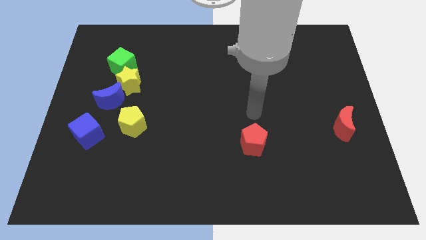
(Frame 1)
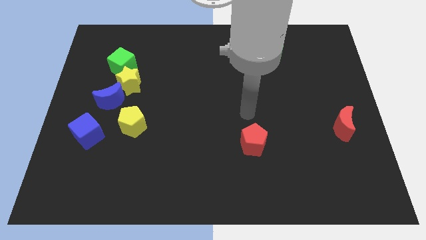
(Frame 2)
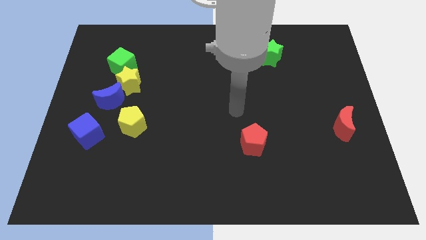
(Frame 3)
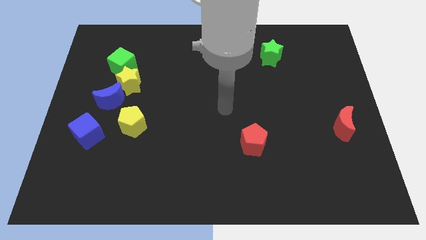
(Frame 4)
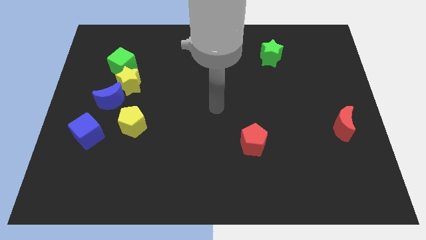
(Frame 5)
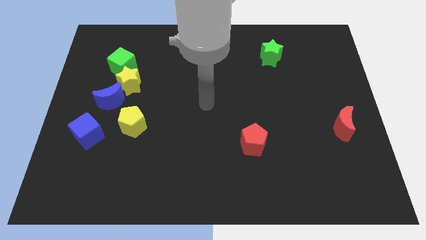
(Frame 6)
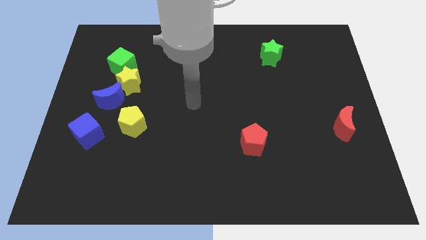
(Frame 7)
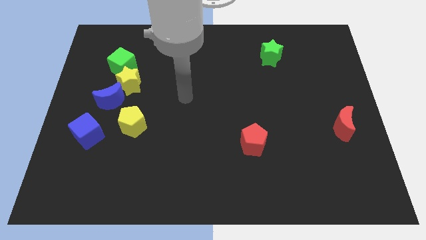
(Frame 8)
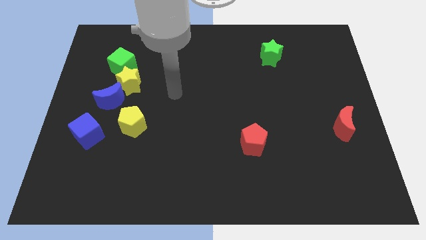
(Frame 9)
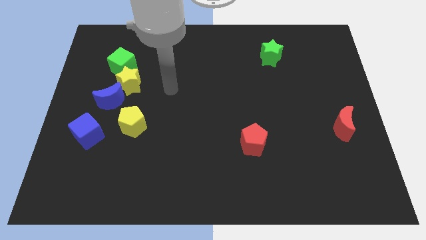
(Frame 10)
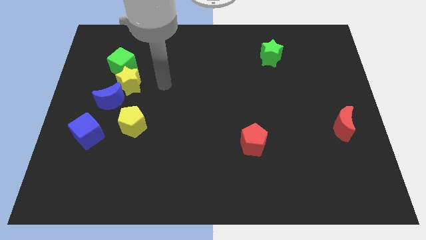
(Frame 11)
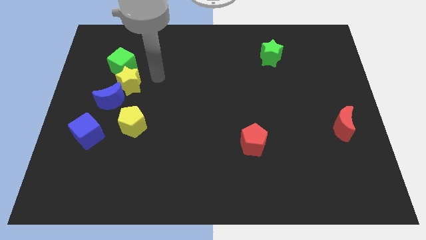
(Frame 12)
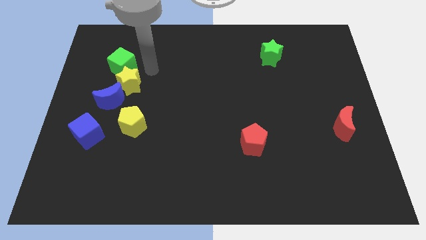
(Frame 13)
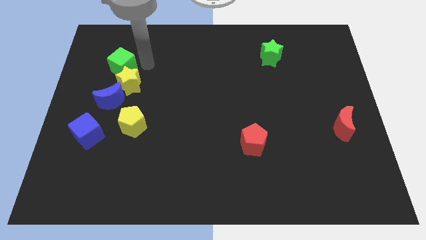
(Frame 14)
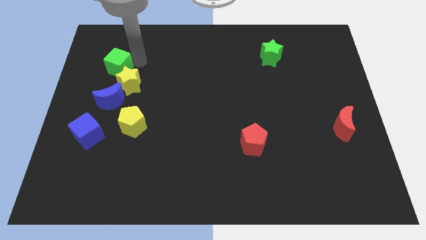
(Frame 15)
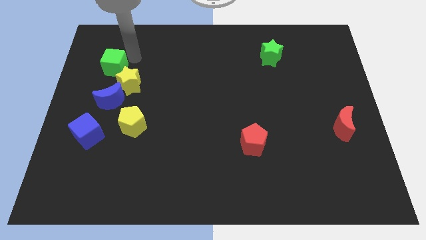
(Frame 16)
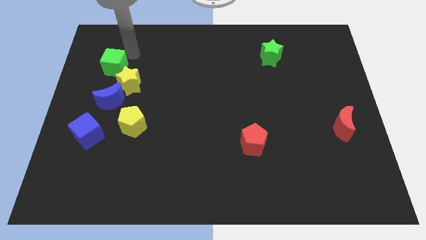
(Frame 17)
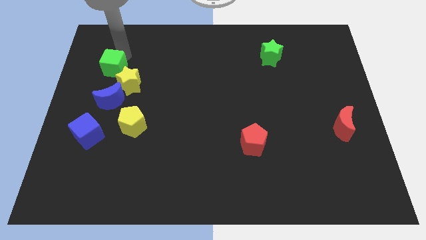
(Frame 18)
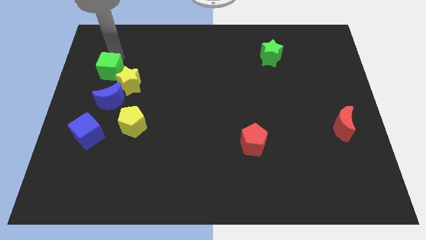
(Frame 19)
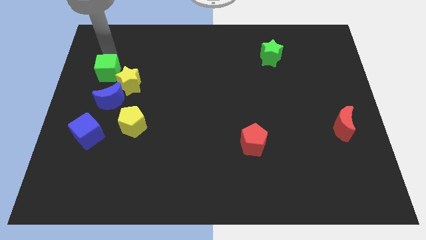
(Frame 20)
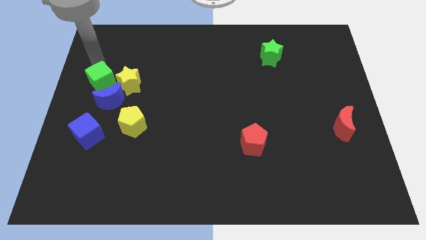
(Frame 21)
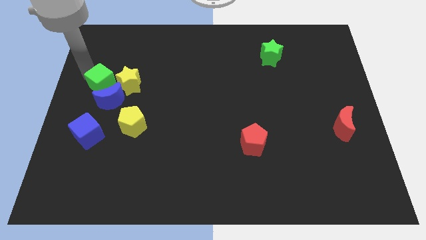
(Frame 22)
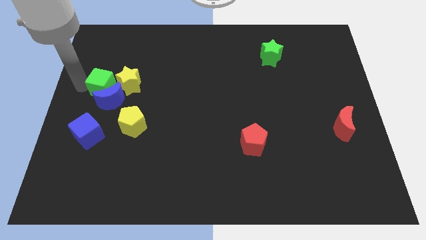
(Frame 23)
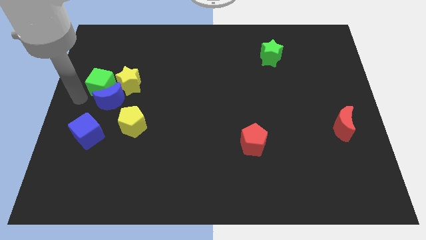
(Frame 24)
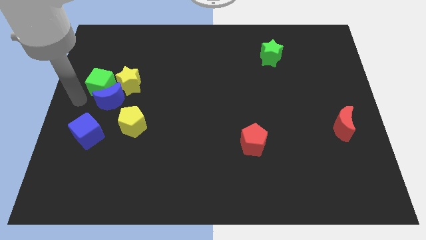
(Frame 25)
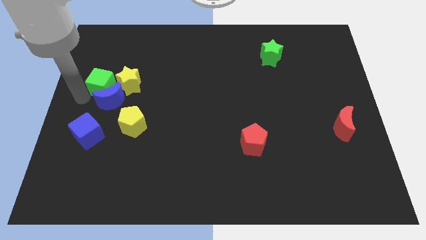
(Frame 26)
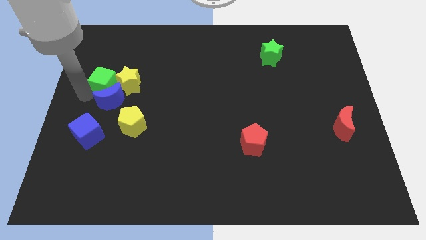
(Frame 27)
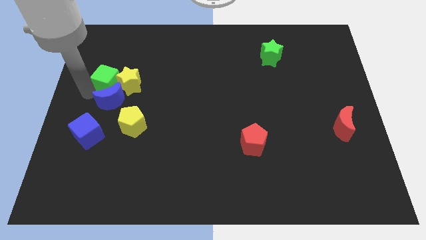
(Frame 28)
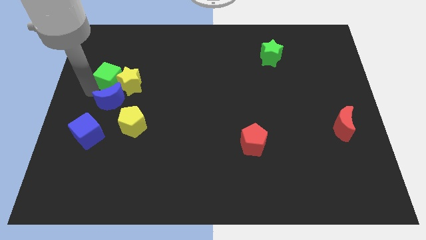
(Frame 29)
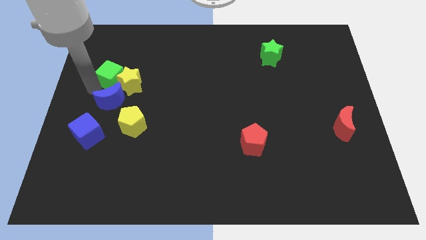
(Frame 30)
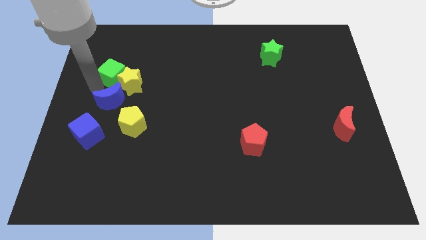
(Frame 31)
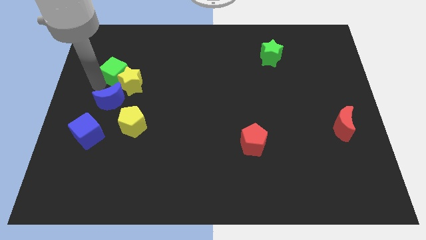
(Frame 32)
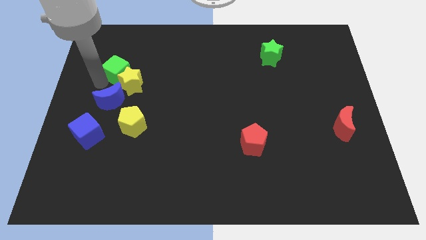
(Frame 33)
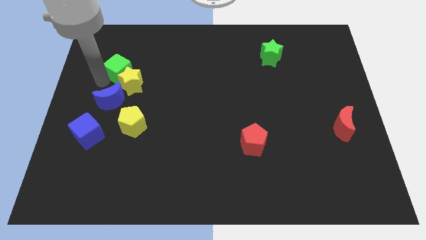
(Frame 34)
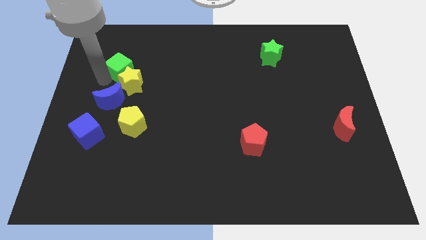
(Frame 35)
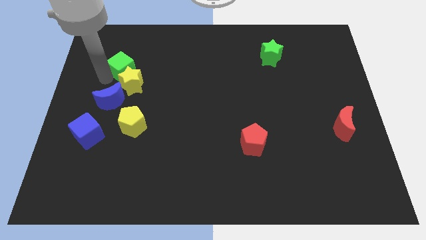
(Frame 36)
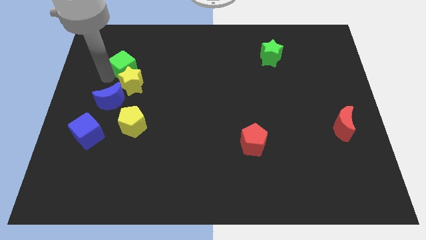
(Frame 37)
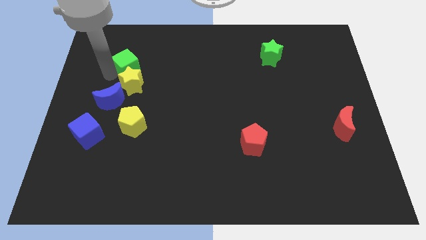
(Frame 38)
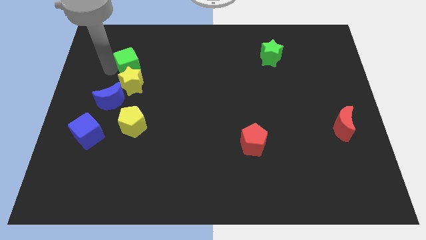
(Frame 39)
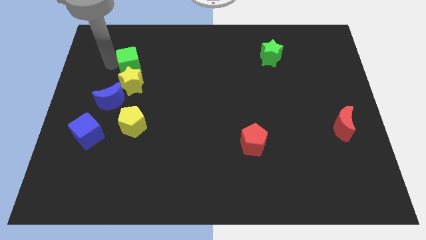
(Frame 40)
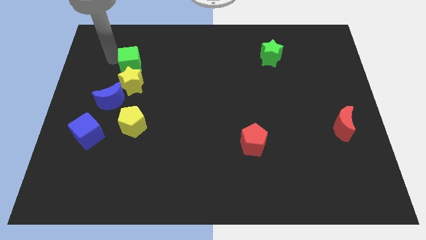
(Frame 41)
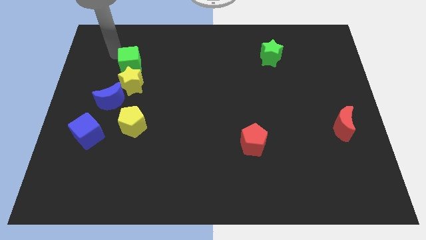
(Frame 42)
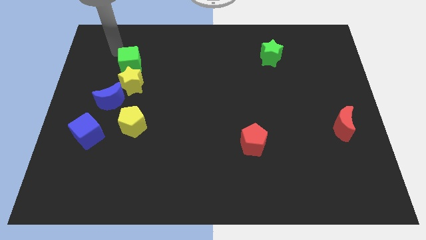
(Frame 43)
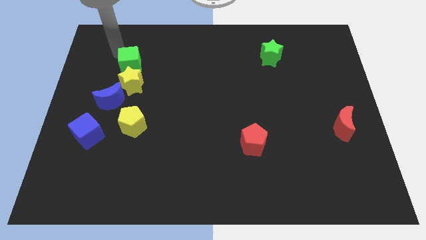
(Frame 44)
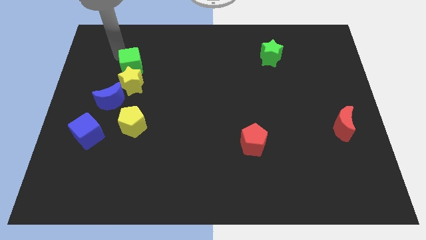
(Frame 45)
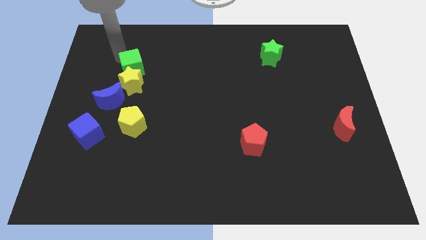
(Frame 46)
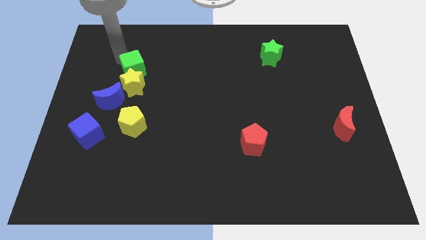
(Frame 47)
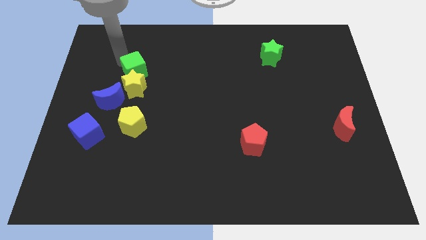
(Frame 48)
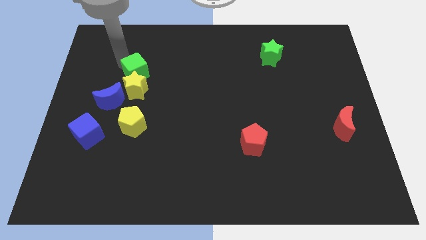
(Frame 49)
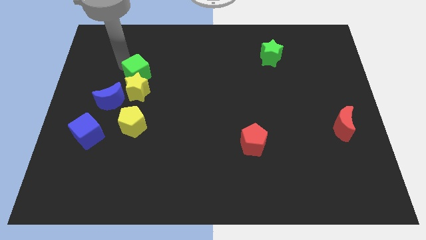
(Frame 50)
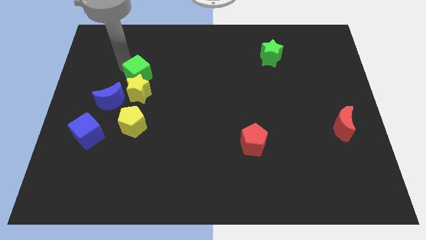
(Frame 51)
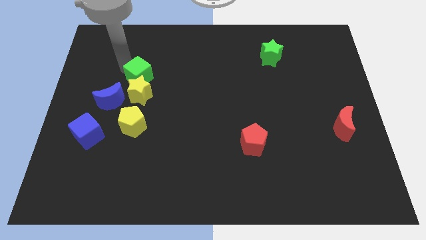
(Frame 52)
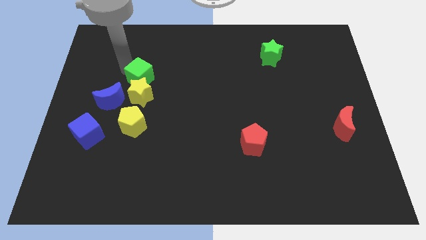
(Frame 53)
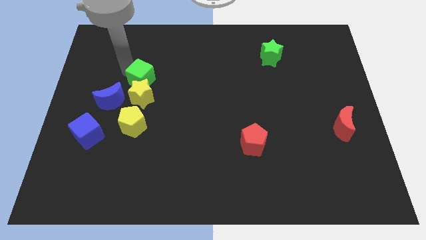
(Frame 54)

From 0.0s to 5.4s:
push the green cube diagonally downwards and right a bit

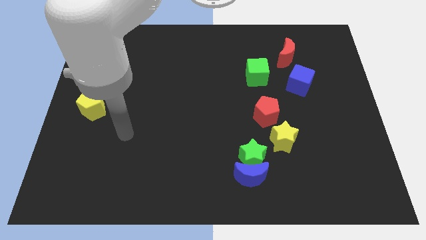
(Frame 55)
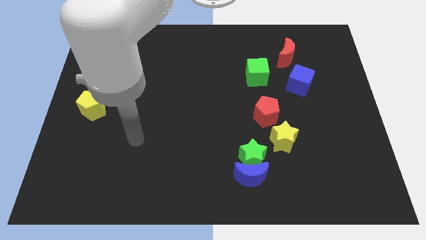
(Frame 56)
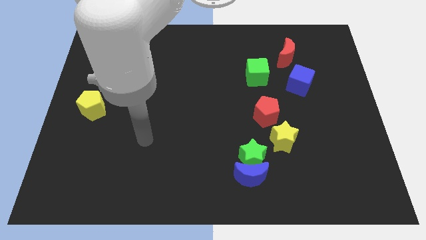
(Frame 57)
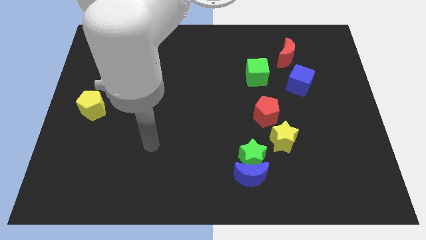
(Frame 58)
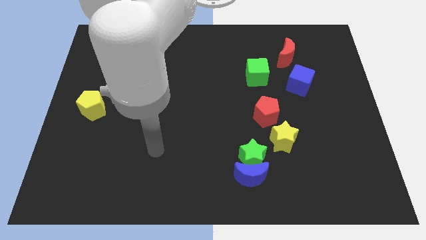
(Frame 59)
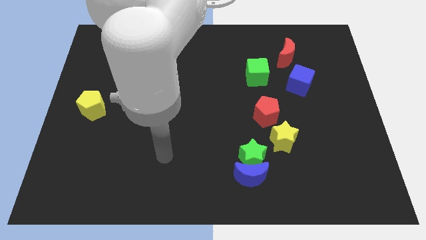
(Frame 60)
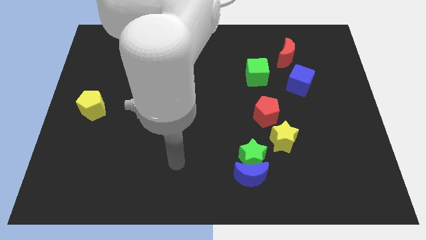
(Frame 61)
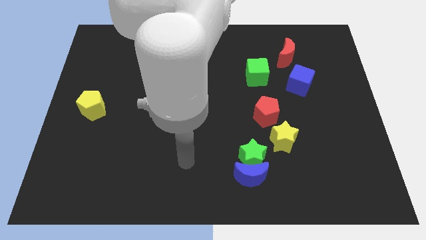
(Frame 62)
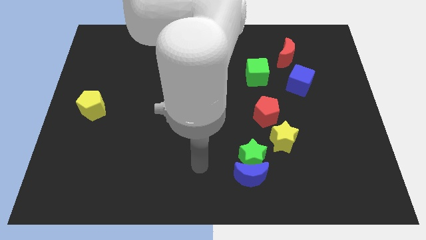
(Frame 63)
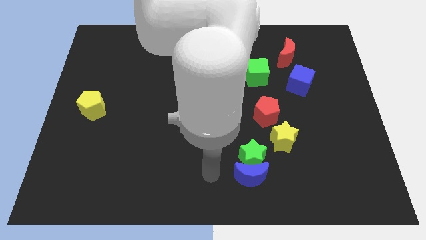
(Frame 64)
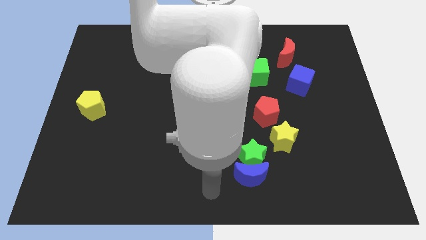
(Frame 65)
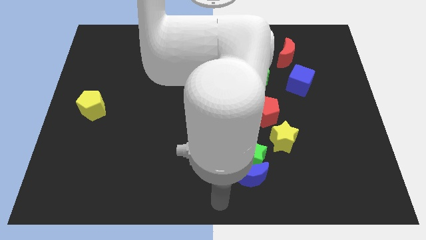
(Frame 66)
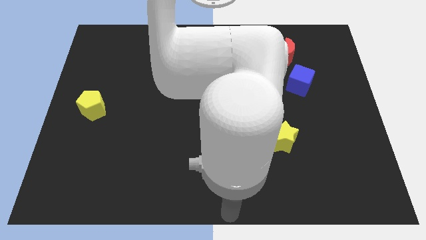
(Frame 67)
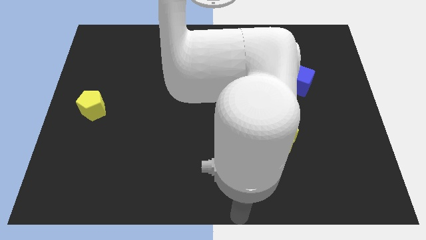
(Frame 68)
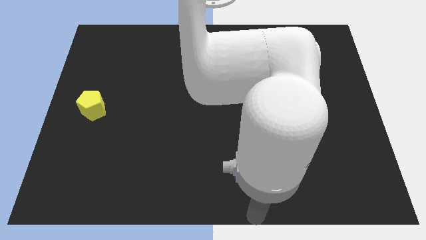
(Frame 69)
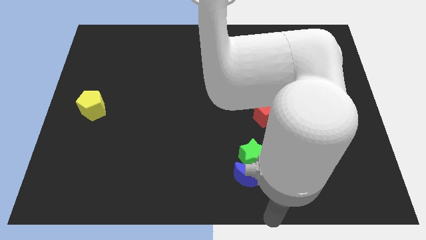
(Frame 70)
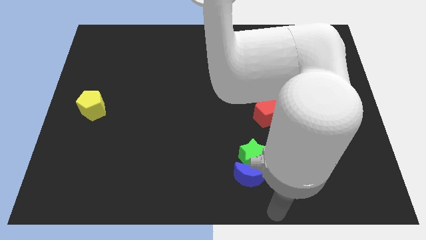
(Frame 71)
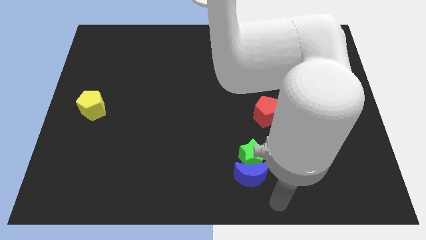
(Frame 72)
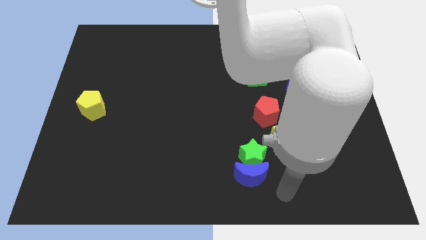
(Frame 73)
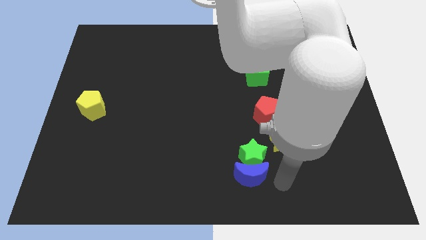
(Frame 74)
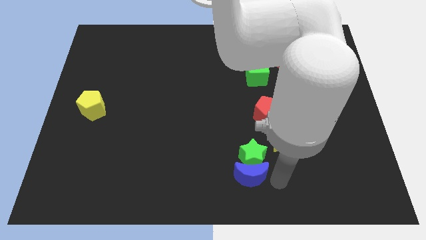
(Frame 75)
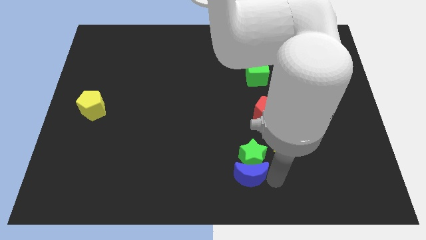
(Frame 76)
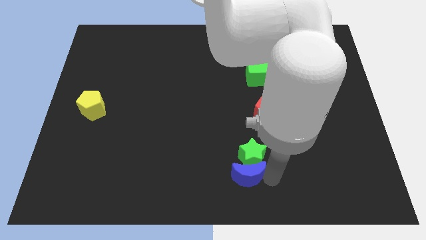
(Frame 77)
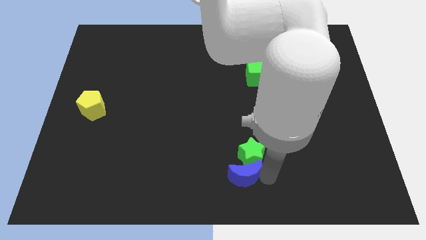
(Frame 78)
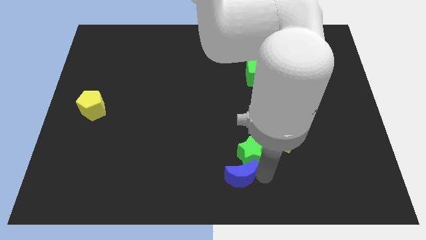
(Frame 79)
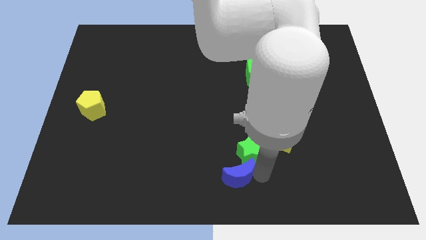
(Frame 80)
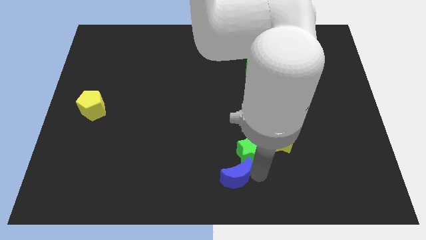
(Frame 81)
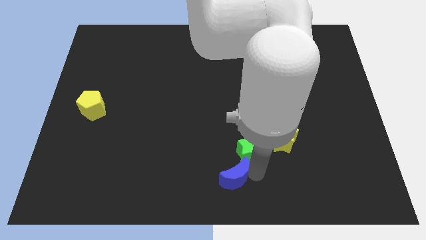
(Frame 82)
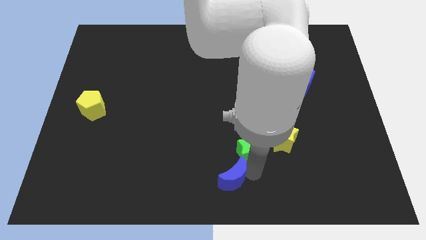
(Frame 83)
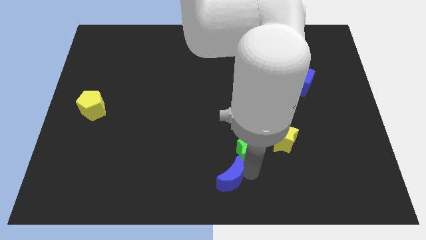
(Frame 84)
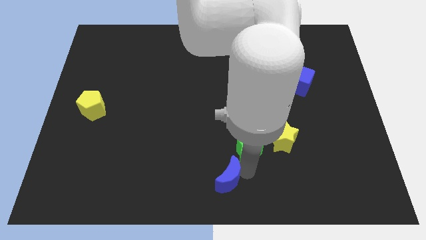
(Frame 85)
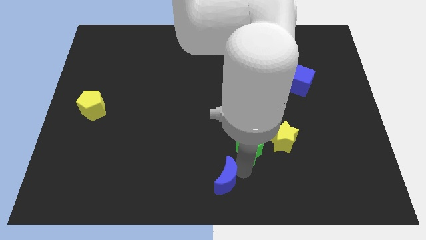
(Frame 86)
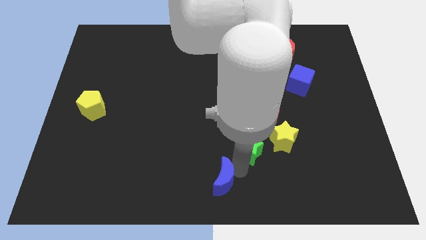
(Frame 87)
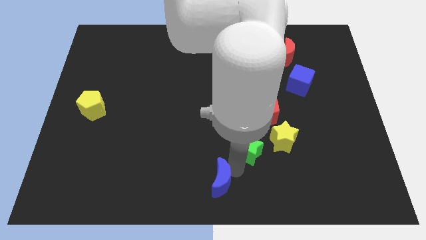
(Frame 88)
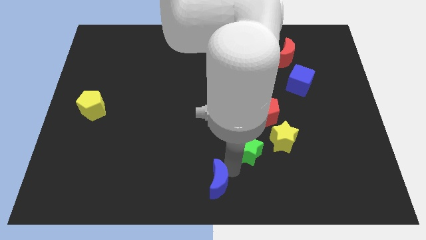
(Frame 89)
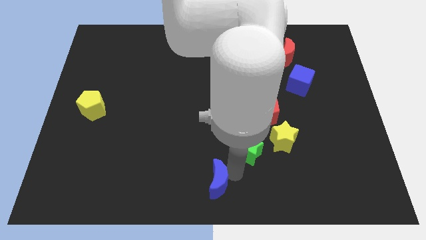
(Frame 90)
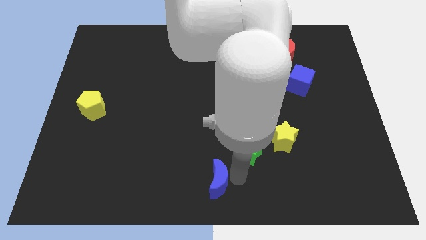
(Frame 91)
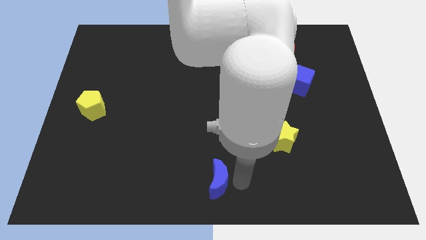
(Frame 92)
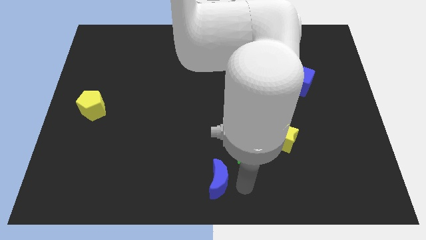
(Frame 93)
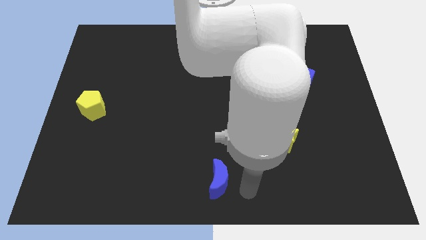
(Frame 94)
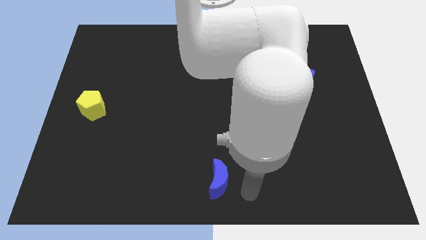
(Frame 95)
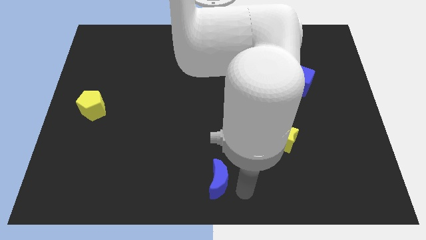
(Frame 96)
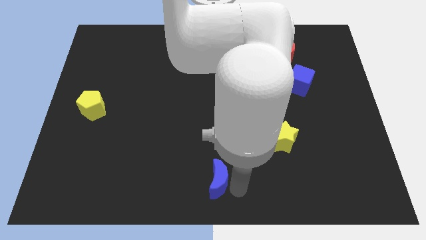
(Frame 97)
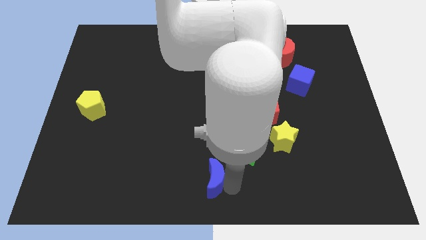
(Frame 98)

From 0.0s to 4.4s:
push the blue moon a little bit to the left
